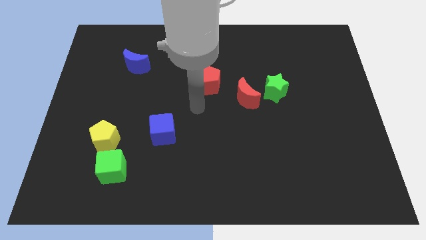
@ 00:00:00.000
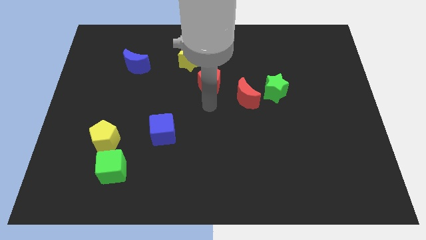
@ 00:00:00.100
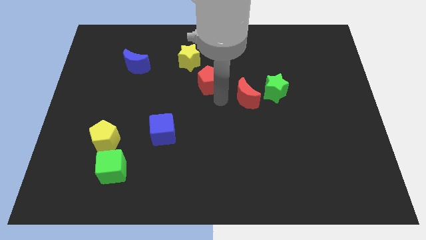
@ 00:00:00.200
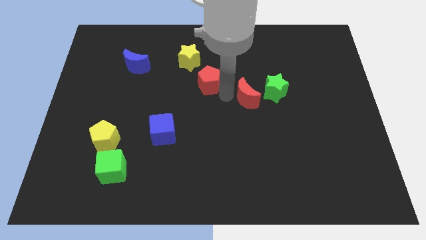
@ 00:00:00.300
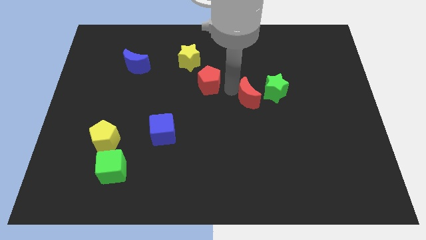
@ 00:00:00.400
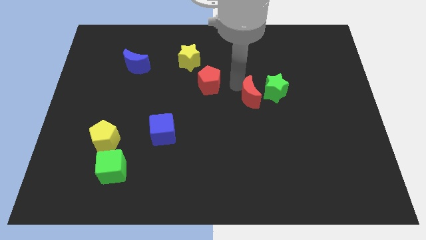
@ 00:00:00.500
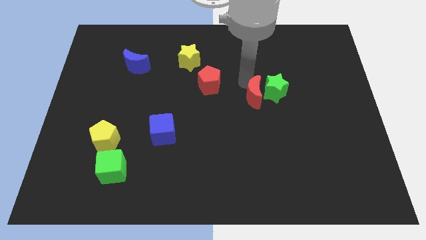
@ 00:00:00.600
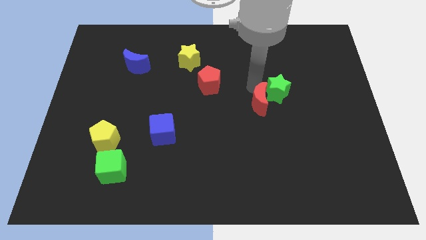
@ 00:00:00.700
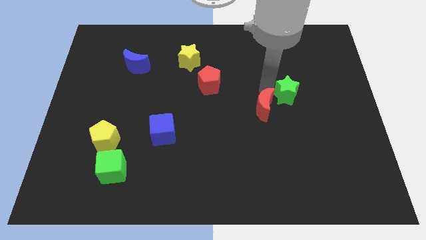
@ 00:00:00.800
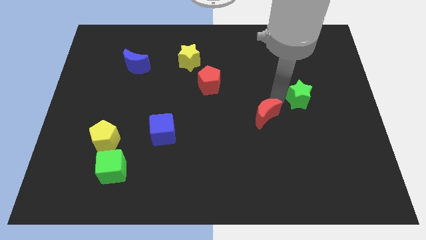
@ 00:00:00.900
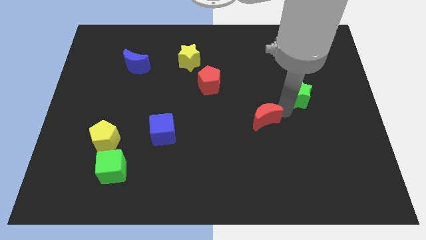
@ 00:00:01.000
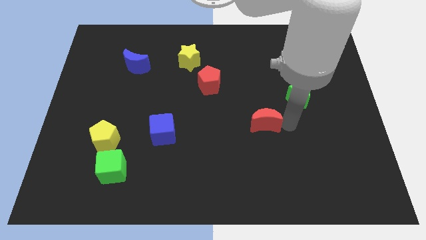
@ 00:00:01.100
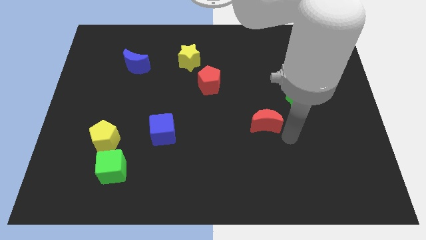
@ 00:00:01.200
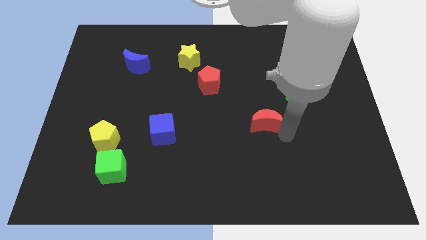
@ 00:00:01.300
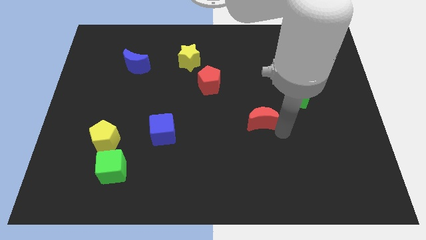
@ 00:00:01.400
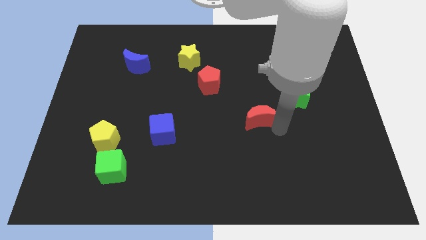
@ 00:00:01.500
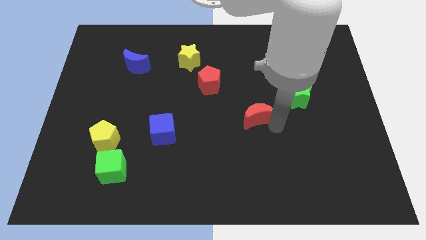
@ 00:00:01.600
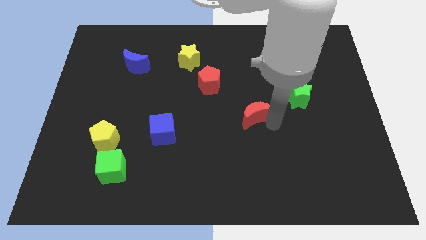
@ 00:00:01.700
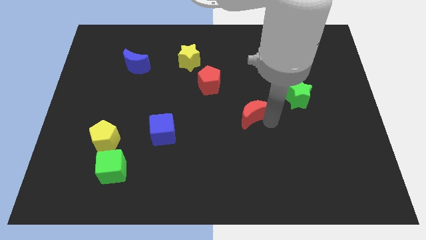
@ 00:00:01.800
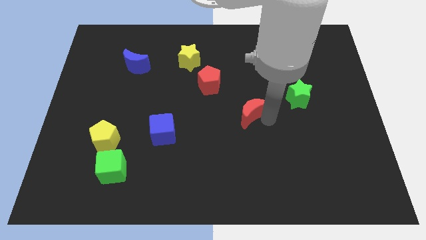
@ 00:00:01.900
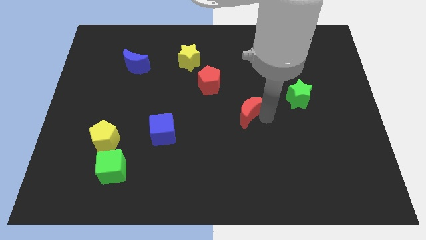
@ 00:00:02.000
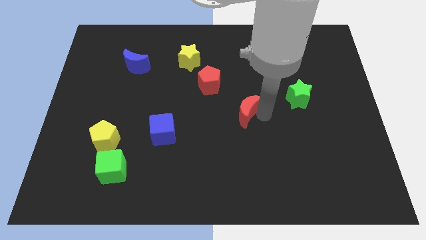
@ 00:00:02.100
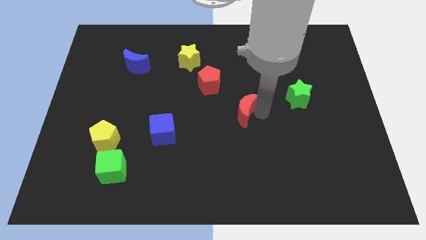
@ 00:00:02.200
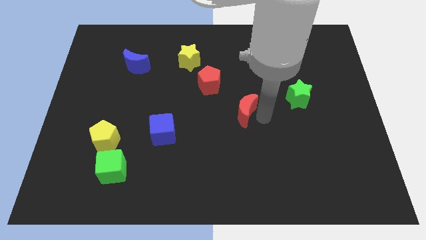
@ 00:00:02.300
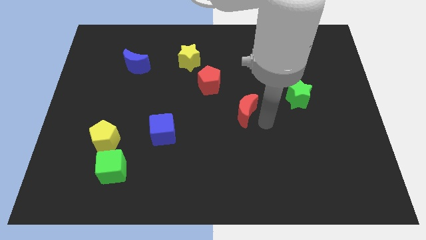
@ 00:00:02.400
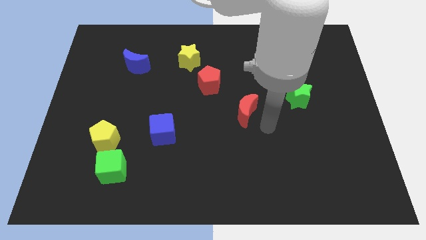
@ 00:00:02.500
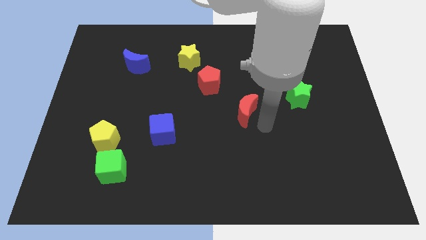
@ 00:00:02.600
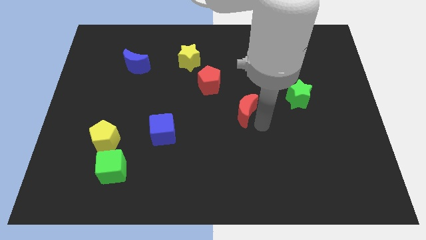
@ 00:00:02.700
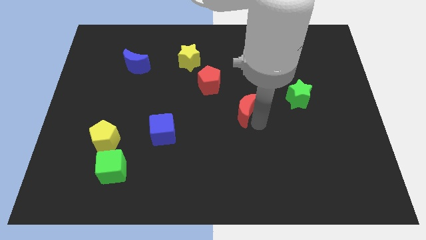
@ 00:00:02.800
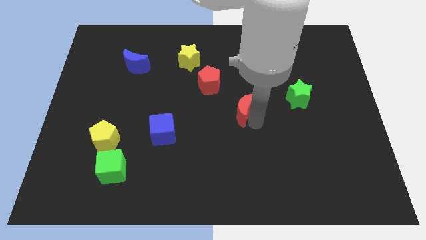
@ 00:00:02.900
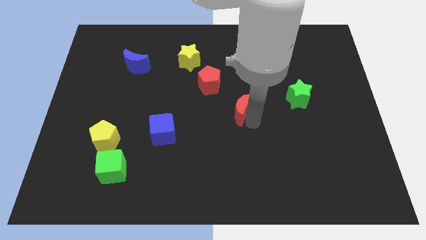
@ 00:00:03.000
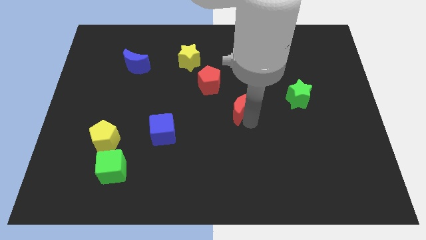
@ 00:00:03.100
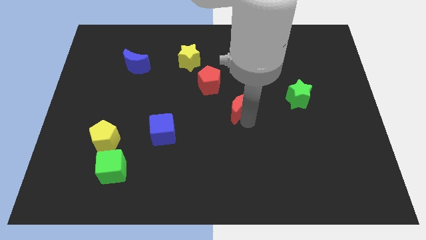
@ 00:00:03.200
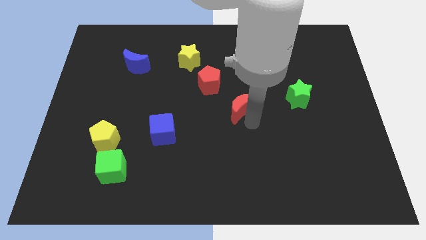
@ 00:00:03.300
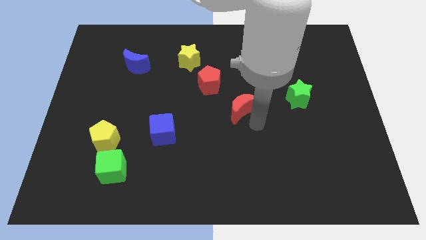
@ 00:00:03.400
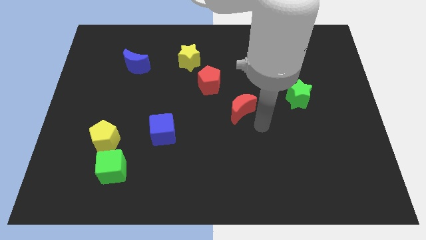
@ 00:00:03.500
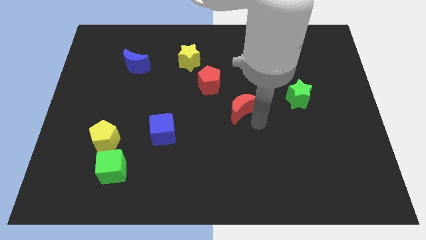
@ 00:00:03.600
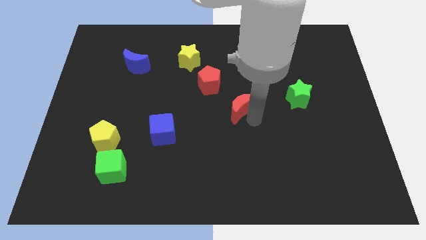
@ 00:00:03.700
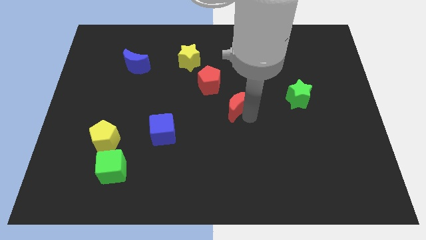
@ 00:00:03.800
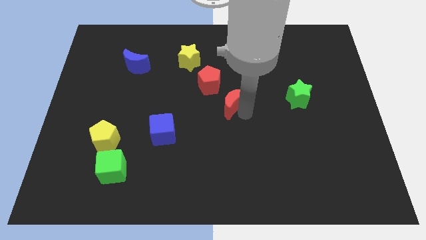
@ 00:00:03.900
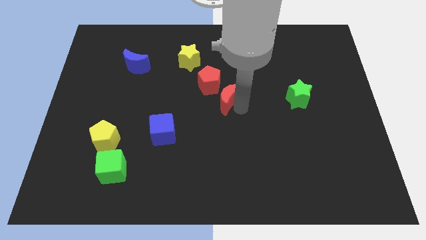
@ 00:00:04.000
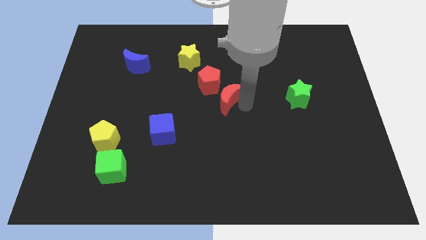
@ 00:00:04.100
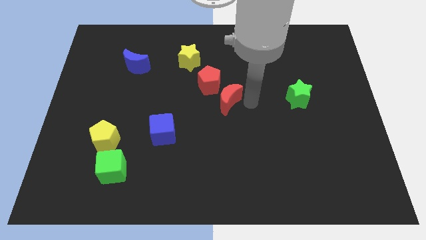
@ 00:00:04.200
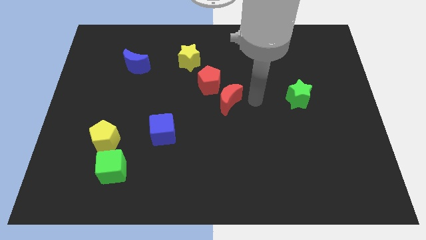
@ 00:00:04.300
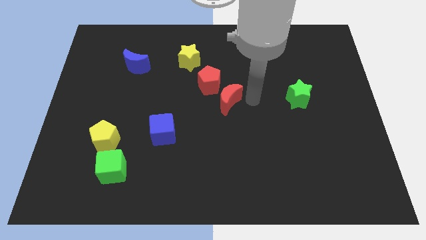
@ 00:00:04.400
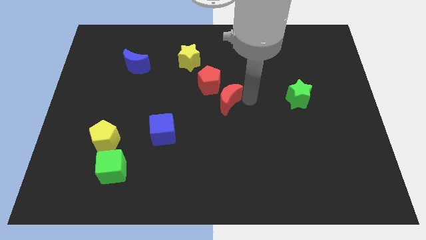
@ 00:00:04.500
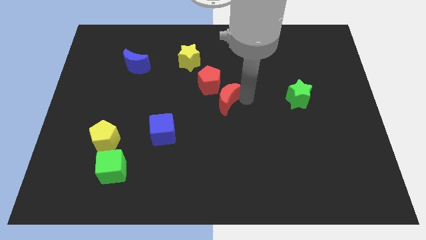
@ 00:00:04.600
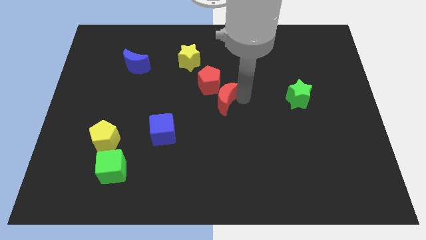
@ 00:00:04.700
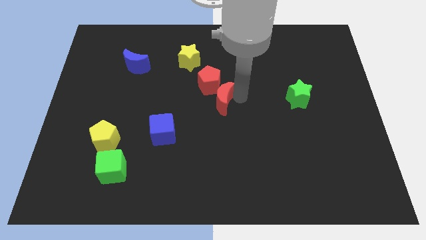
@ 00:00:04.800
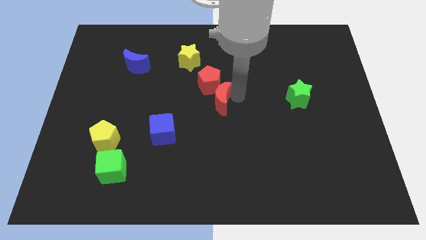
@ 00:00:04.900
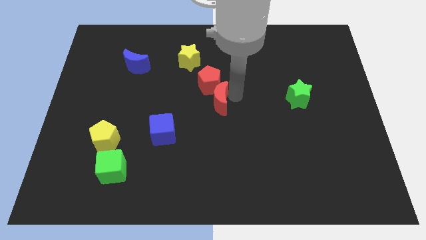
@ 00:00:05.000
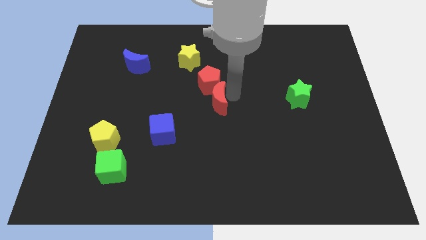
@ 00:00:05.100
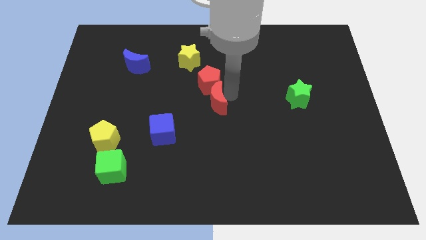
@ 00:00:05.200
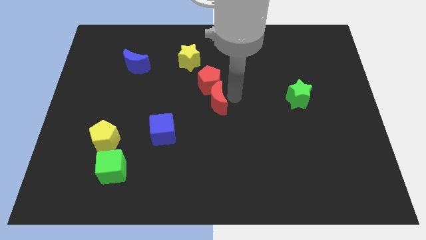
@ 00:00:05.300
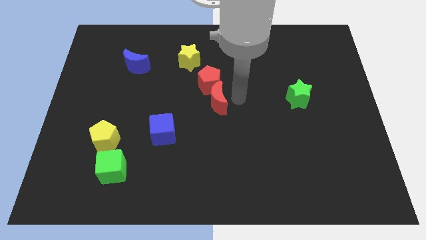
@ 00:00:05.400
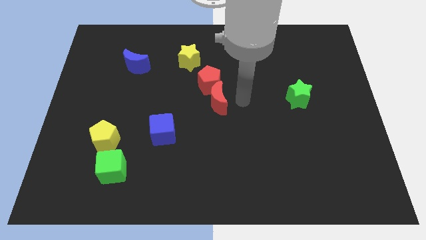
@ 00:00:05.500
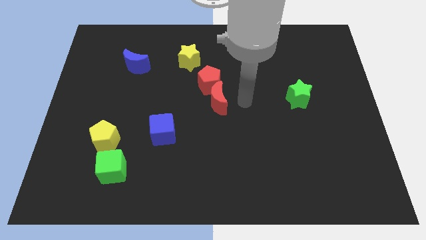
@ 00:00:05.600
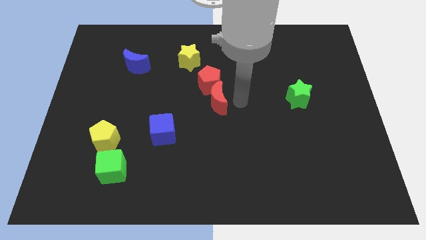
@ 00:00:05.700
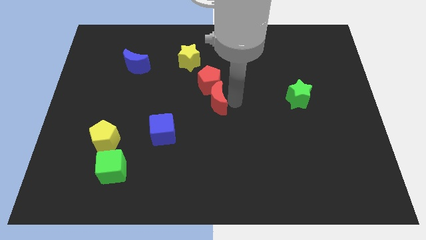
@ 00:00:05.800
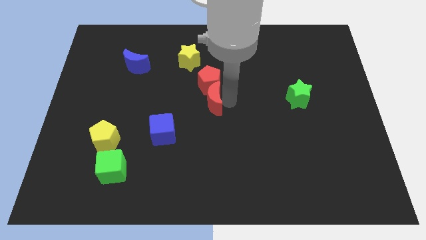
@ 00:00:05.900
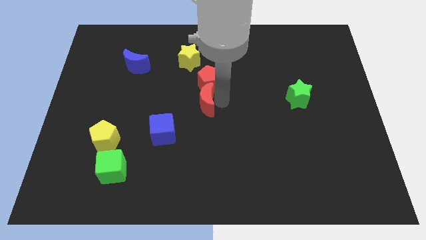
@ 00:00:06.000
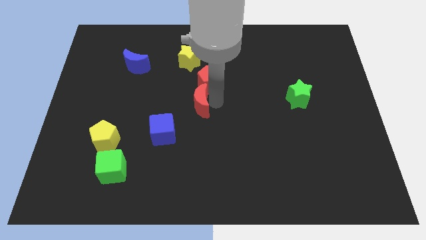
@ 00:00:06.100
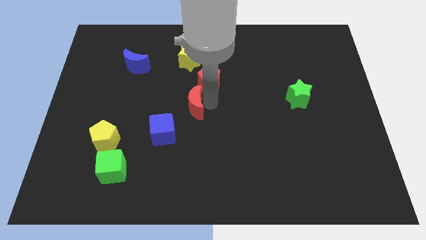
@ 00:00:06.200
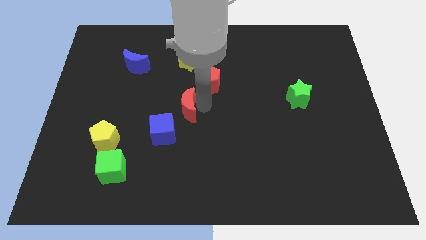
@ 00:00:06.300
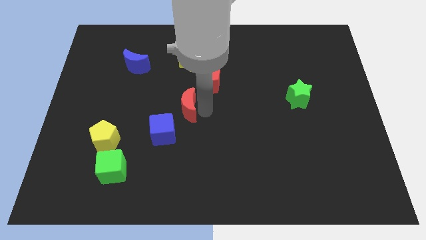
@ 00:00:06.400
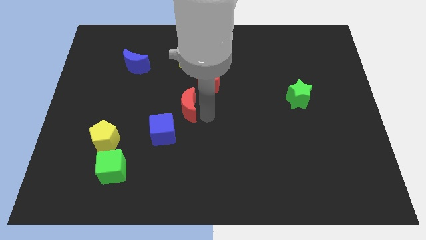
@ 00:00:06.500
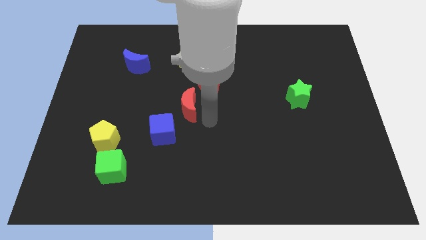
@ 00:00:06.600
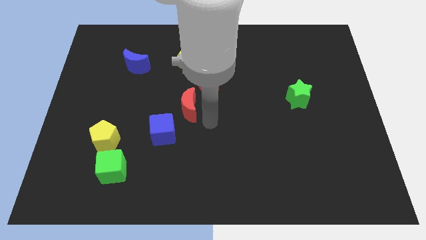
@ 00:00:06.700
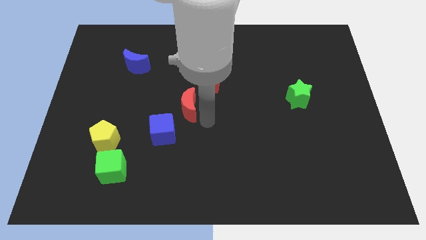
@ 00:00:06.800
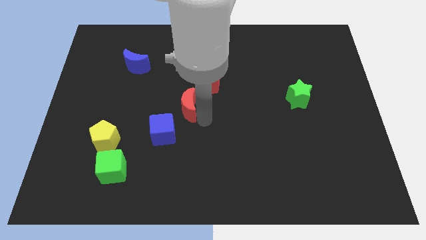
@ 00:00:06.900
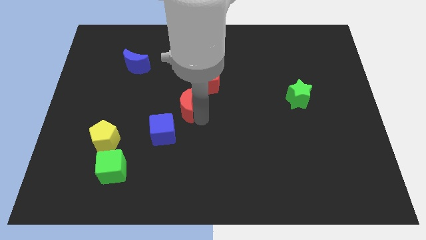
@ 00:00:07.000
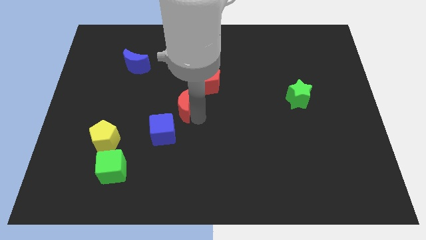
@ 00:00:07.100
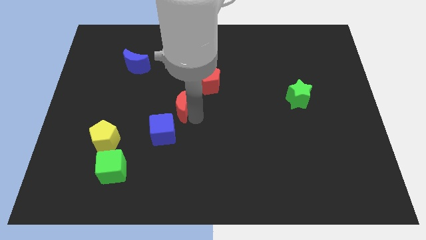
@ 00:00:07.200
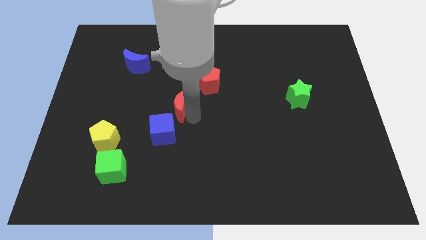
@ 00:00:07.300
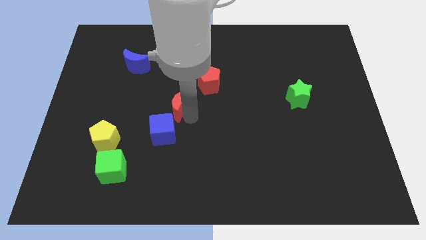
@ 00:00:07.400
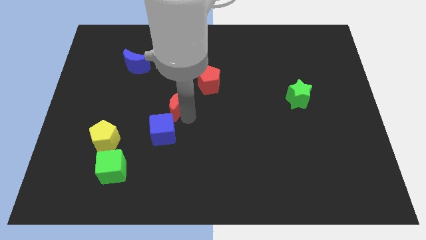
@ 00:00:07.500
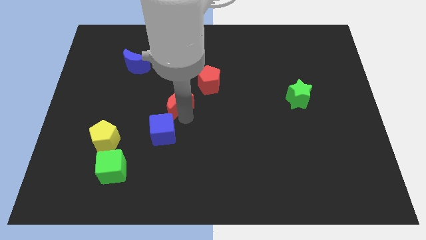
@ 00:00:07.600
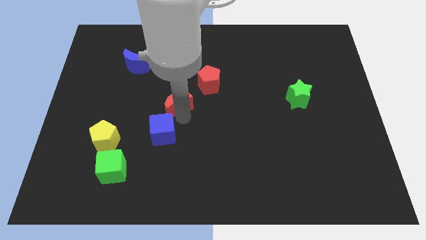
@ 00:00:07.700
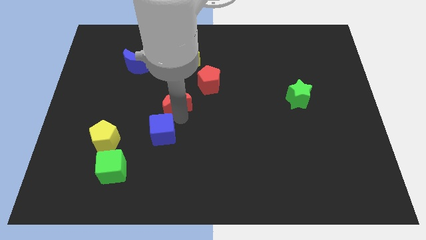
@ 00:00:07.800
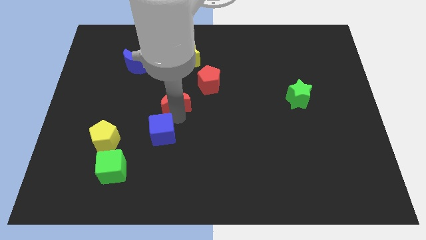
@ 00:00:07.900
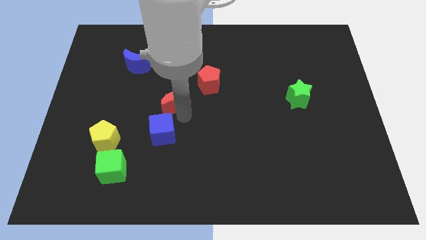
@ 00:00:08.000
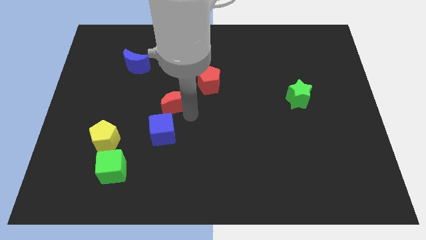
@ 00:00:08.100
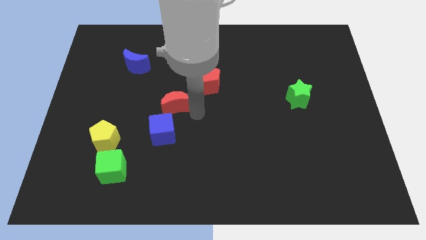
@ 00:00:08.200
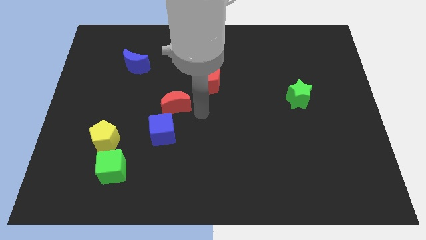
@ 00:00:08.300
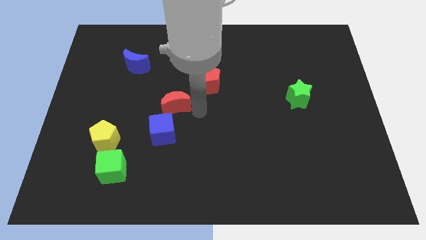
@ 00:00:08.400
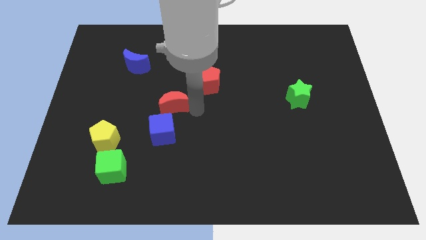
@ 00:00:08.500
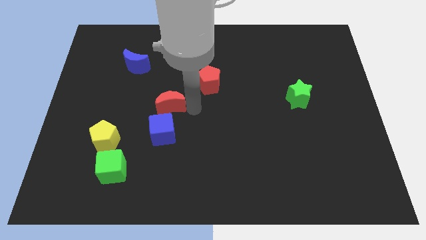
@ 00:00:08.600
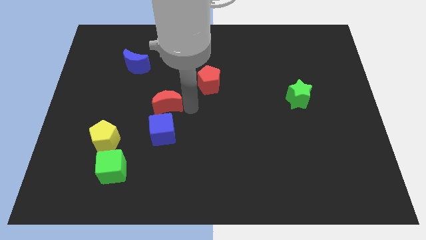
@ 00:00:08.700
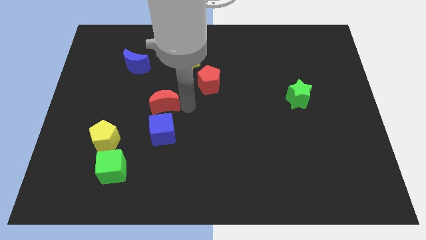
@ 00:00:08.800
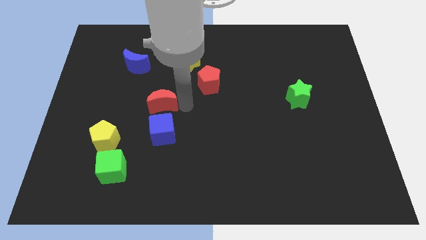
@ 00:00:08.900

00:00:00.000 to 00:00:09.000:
move the red moon to the left
